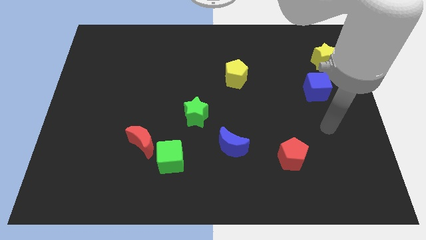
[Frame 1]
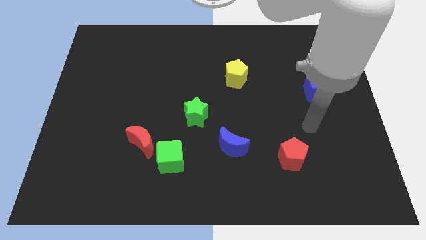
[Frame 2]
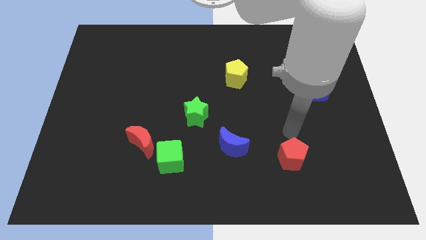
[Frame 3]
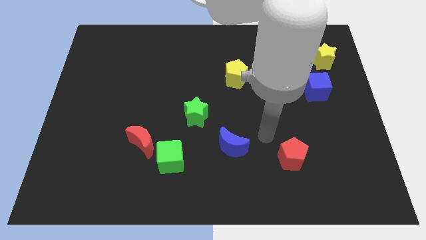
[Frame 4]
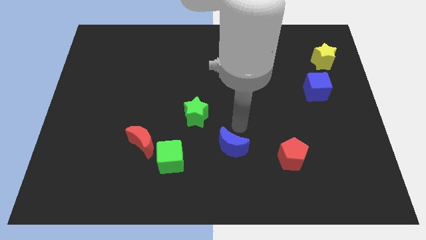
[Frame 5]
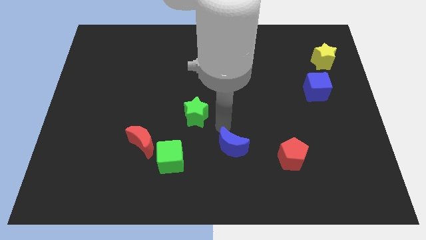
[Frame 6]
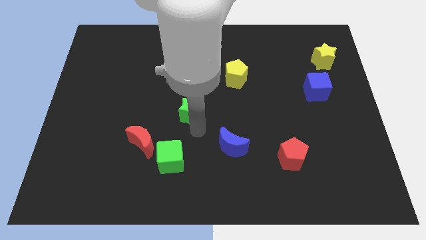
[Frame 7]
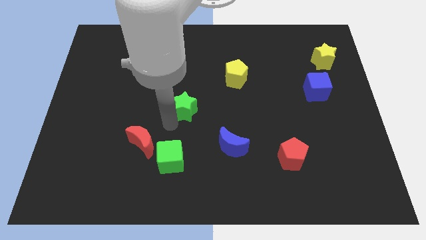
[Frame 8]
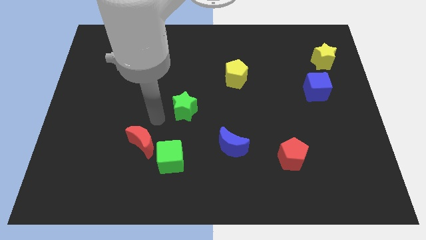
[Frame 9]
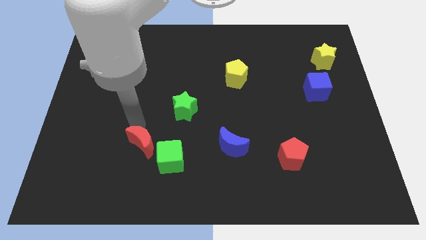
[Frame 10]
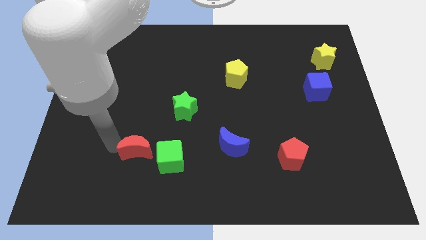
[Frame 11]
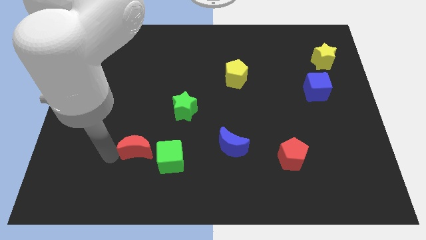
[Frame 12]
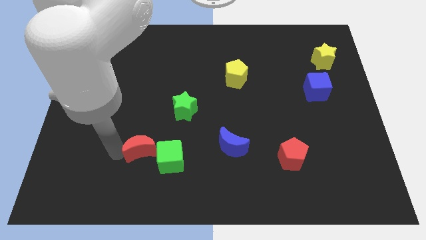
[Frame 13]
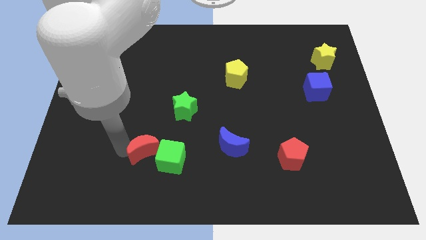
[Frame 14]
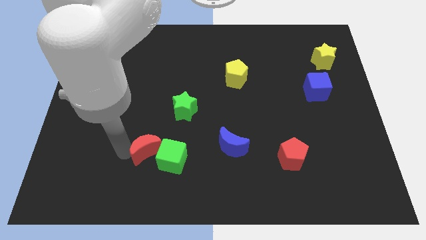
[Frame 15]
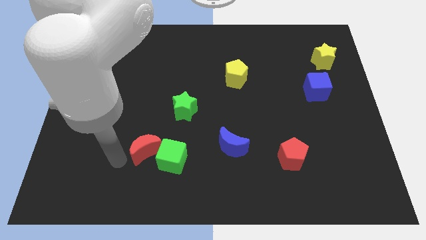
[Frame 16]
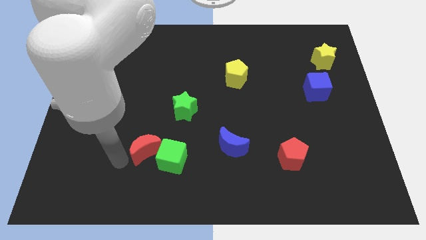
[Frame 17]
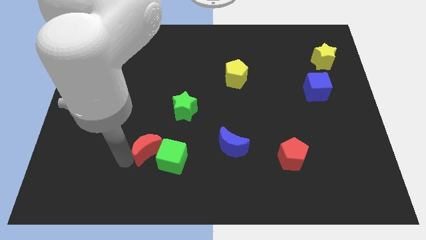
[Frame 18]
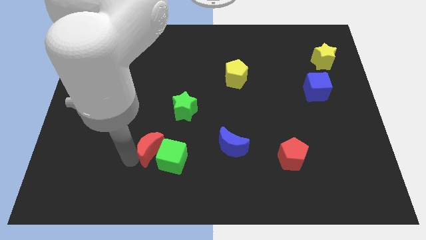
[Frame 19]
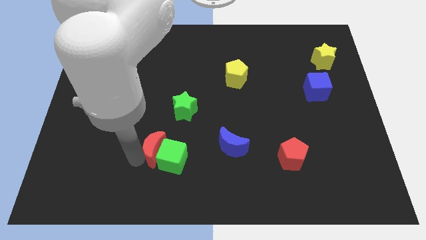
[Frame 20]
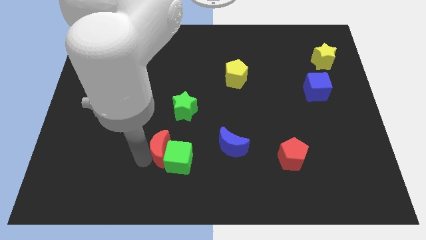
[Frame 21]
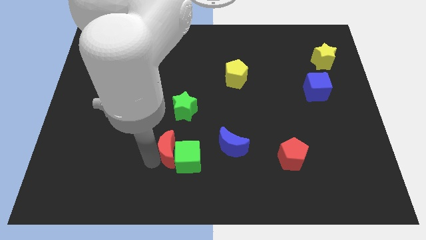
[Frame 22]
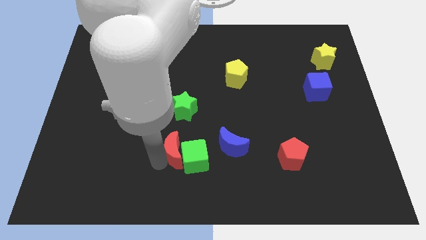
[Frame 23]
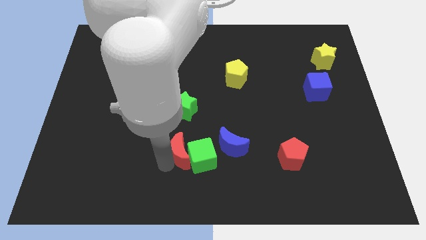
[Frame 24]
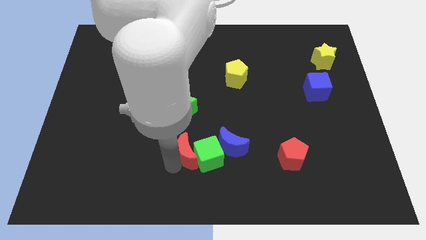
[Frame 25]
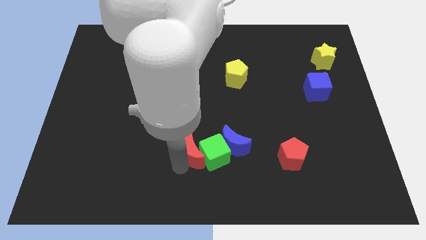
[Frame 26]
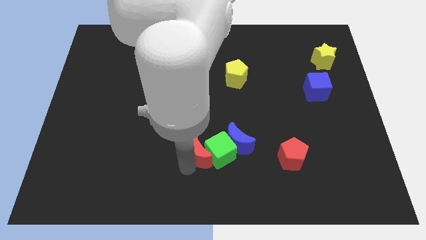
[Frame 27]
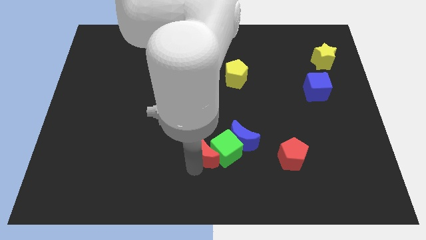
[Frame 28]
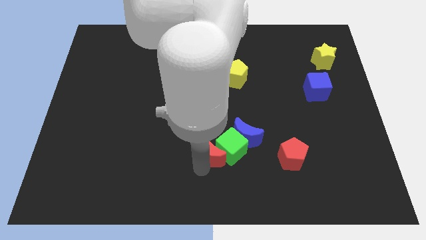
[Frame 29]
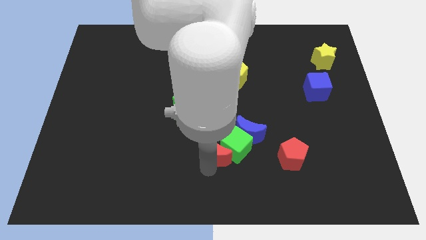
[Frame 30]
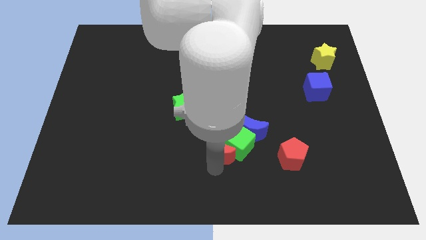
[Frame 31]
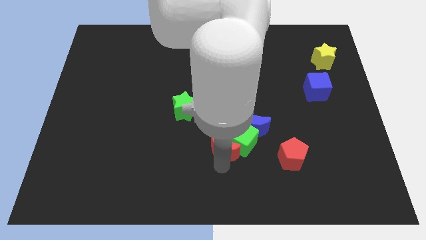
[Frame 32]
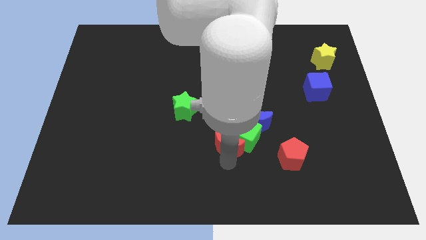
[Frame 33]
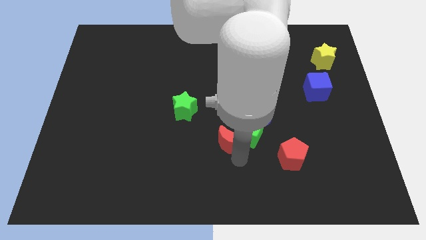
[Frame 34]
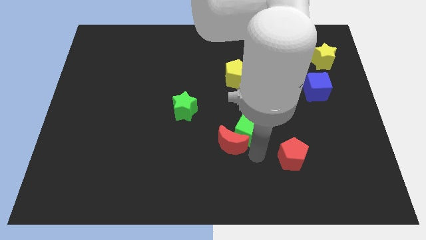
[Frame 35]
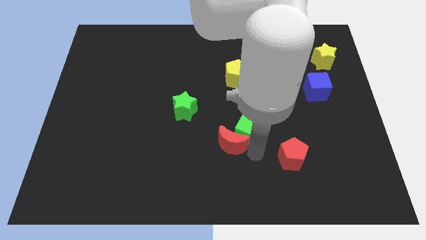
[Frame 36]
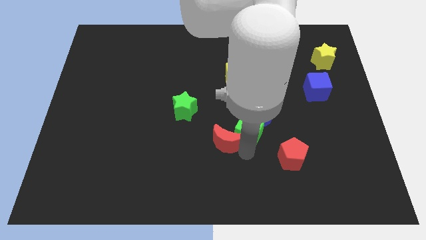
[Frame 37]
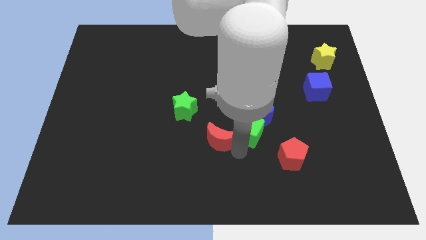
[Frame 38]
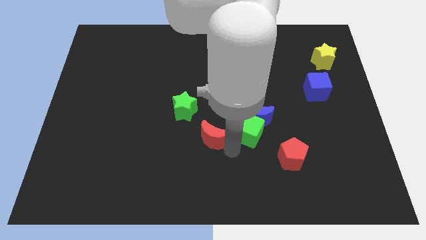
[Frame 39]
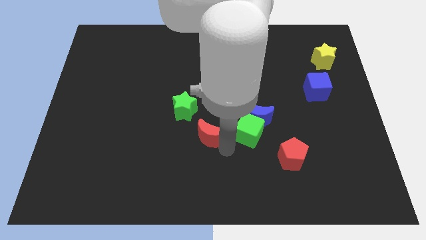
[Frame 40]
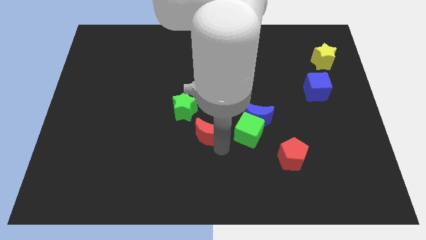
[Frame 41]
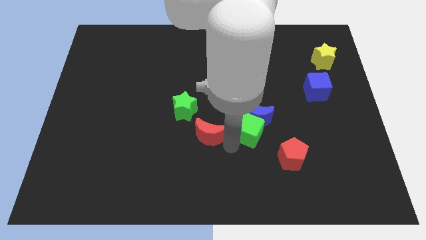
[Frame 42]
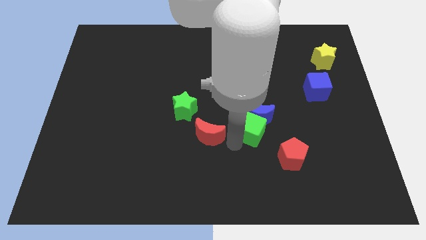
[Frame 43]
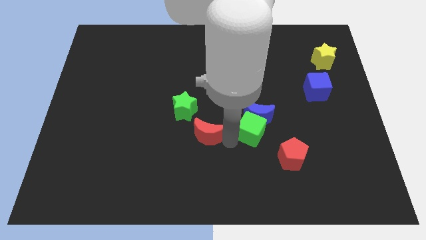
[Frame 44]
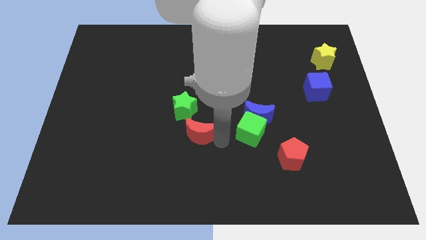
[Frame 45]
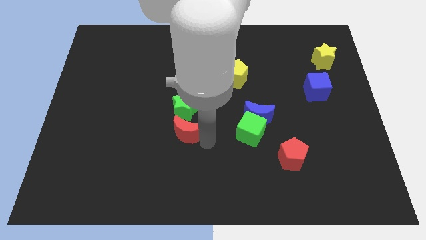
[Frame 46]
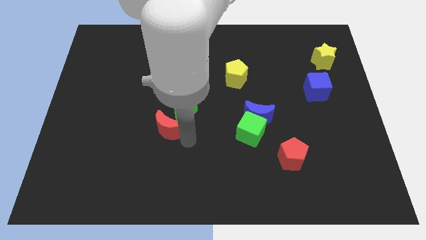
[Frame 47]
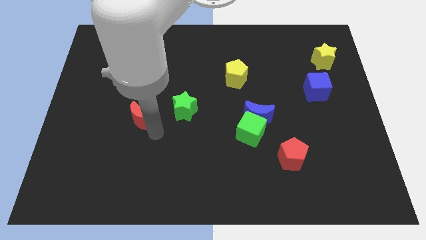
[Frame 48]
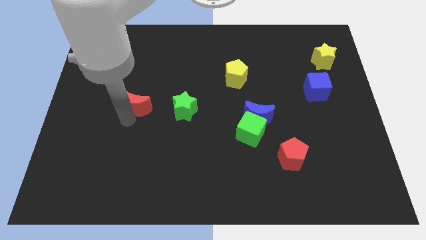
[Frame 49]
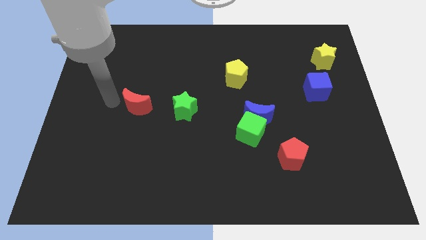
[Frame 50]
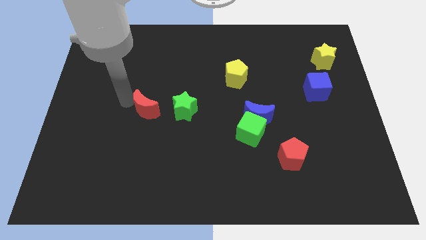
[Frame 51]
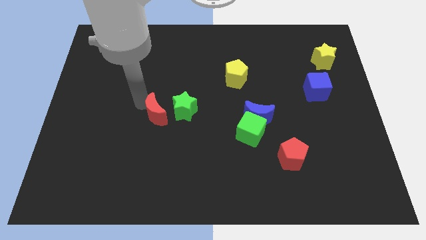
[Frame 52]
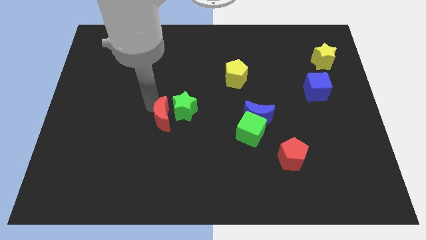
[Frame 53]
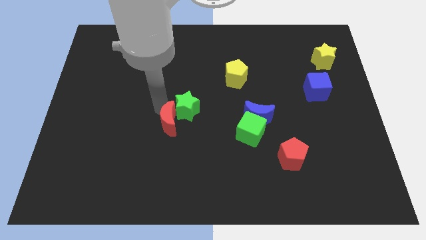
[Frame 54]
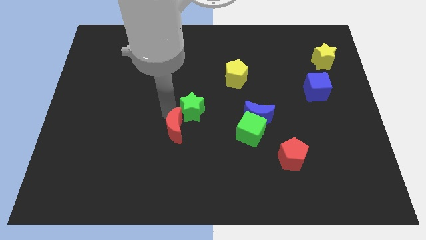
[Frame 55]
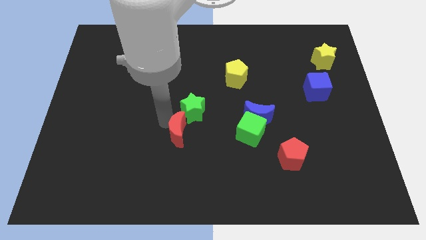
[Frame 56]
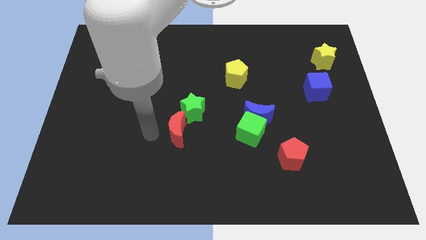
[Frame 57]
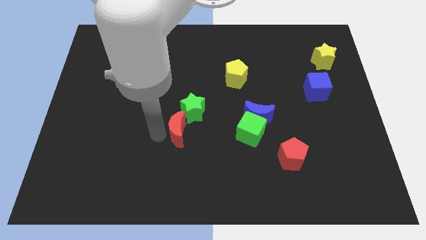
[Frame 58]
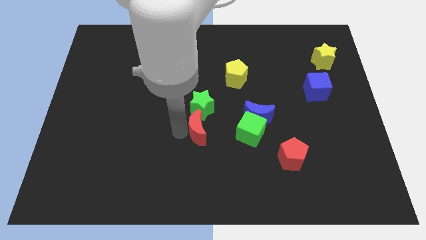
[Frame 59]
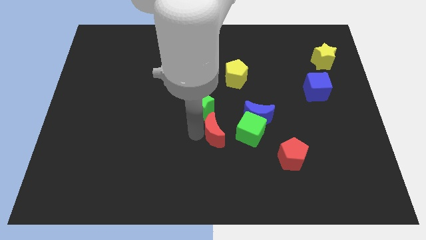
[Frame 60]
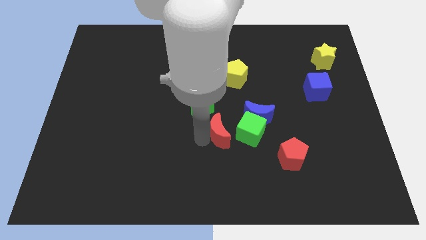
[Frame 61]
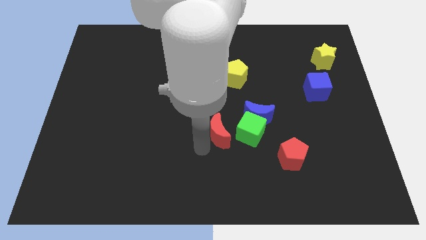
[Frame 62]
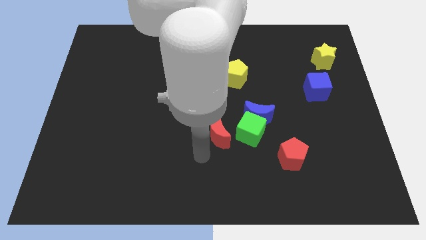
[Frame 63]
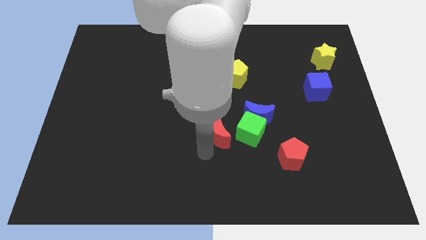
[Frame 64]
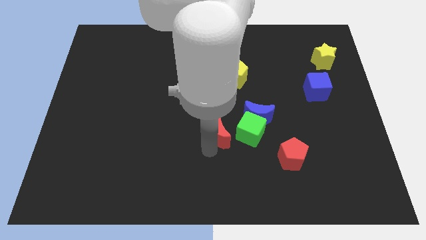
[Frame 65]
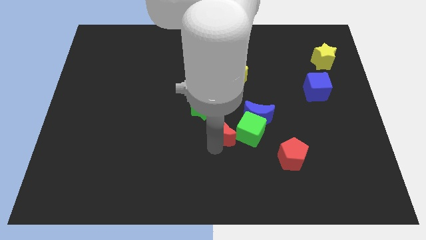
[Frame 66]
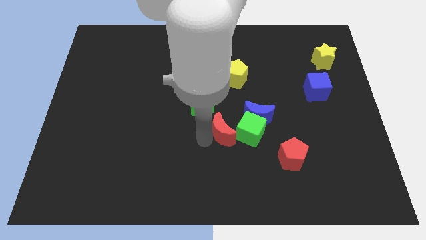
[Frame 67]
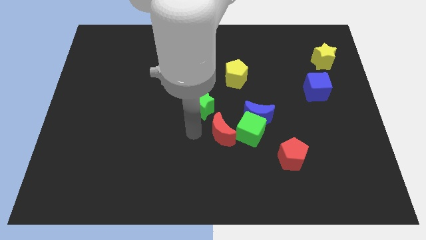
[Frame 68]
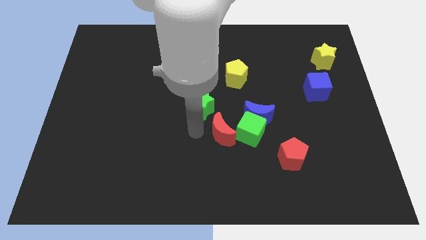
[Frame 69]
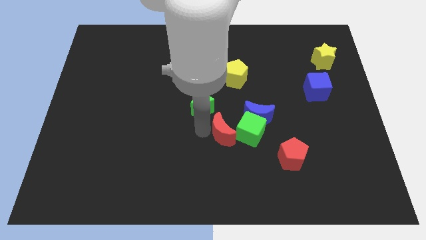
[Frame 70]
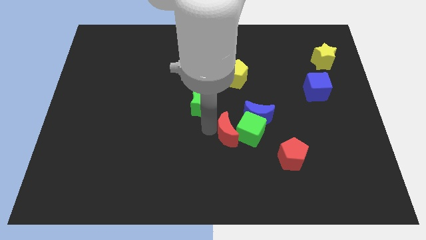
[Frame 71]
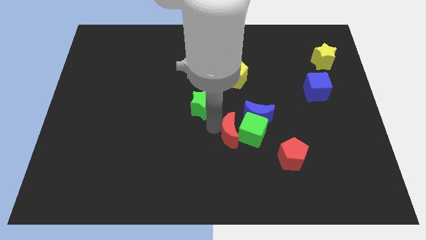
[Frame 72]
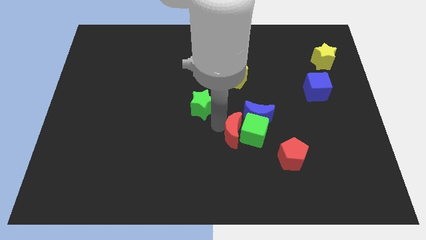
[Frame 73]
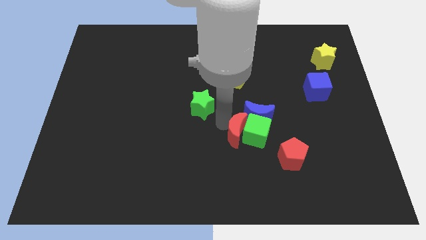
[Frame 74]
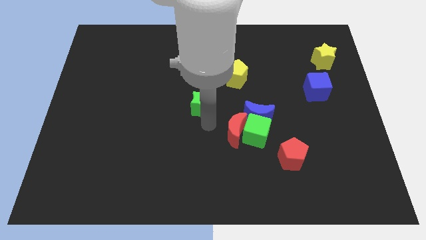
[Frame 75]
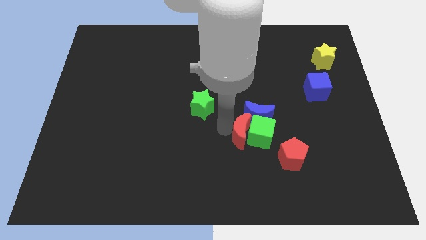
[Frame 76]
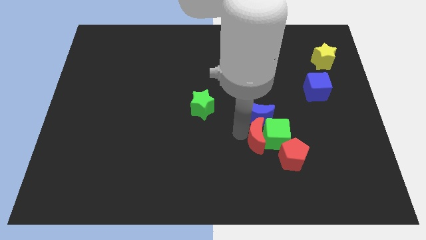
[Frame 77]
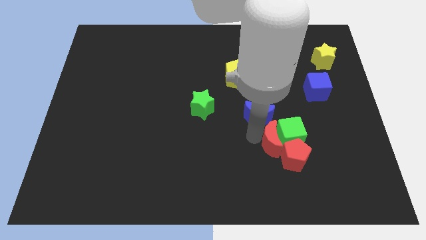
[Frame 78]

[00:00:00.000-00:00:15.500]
put the red moon next to the red pentagon

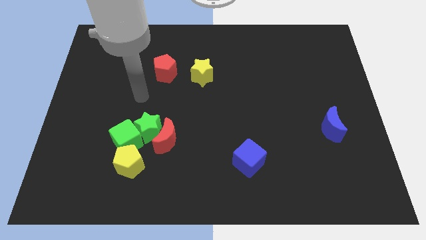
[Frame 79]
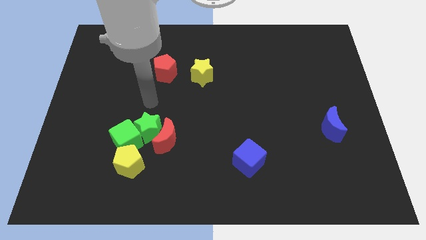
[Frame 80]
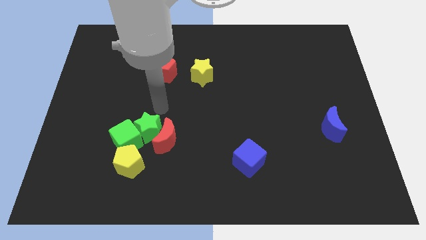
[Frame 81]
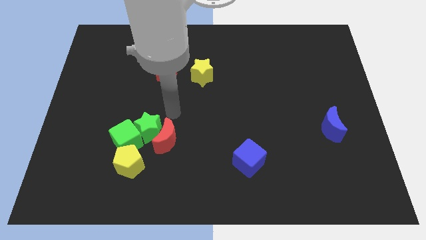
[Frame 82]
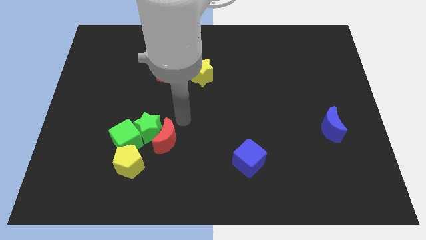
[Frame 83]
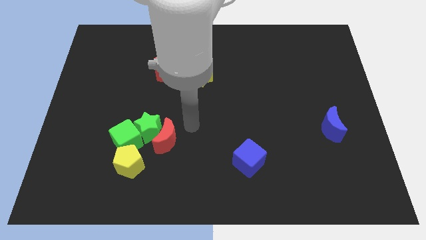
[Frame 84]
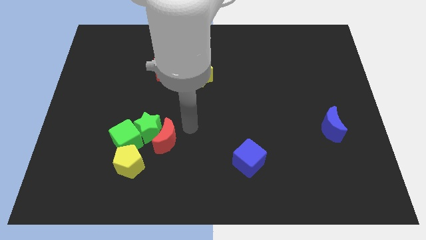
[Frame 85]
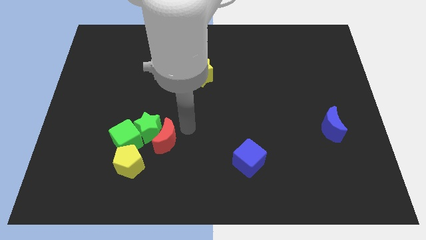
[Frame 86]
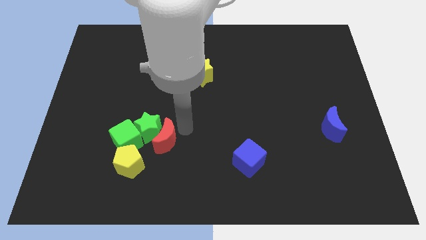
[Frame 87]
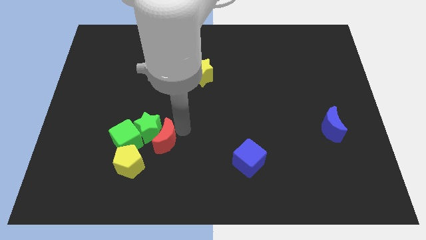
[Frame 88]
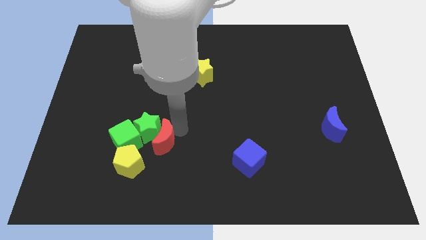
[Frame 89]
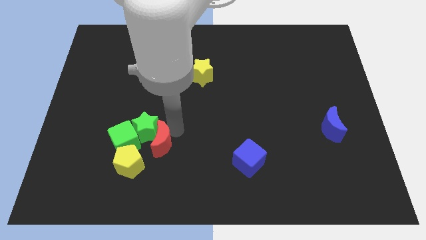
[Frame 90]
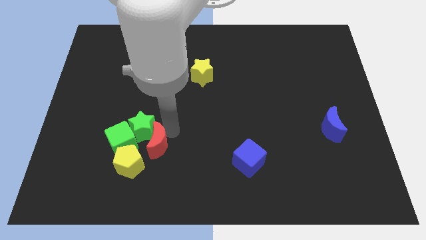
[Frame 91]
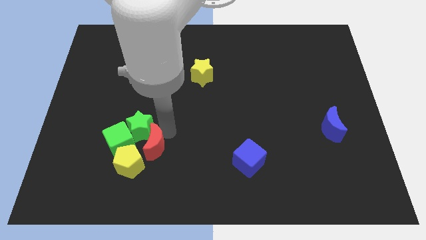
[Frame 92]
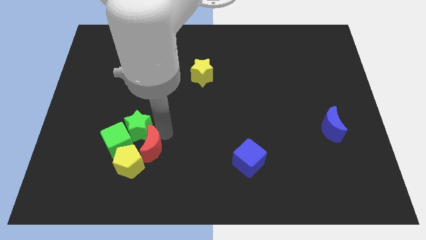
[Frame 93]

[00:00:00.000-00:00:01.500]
put the red moon towards the yellow pentagon
